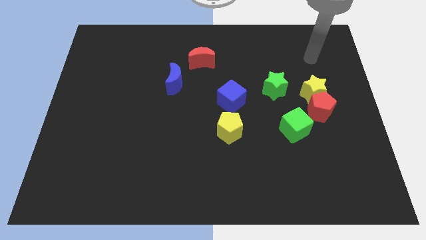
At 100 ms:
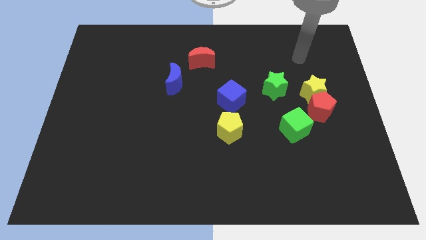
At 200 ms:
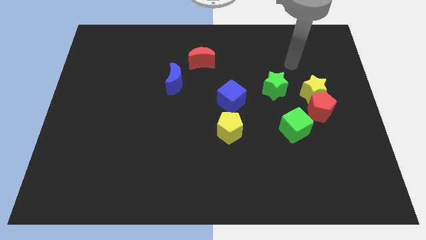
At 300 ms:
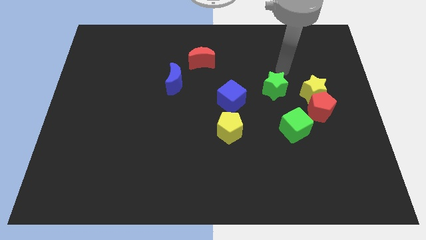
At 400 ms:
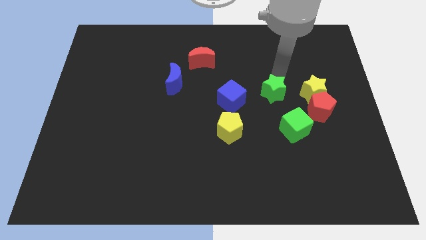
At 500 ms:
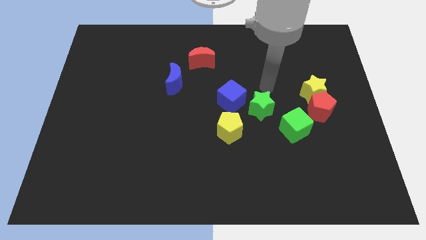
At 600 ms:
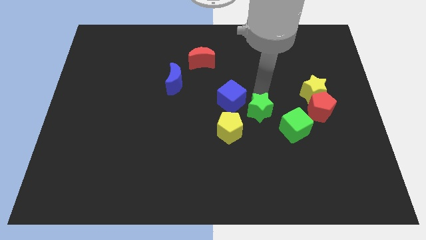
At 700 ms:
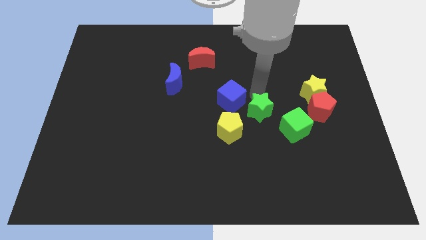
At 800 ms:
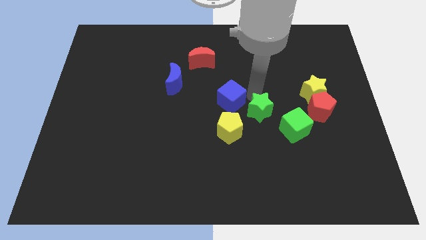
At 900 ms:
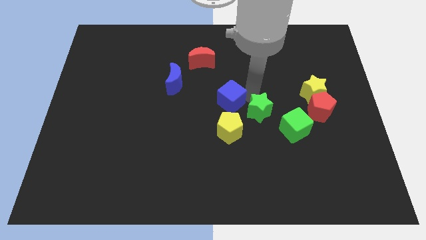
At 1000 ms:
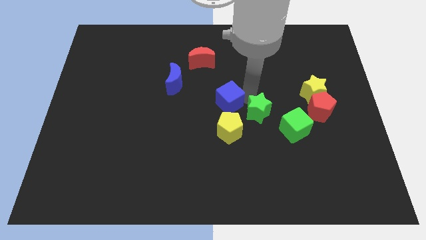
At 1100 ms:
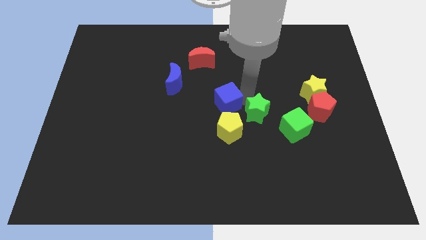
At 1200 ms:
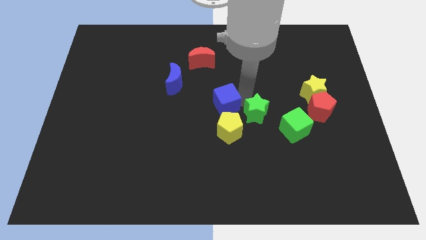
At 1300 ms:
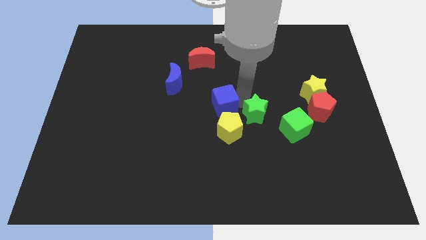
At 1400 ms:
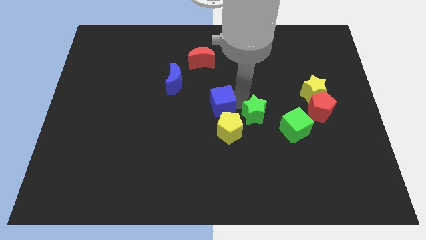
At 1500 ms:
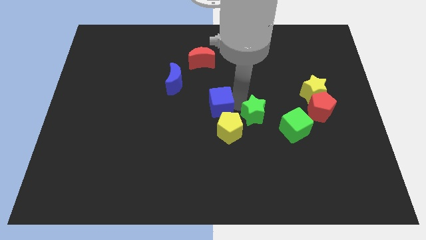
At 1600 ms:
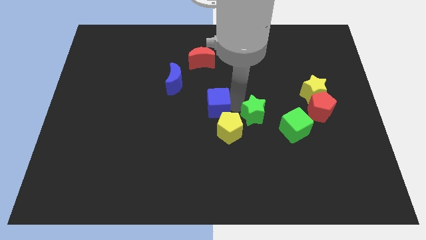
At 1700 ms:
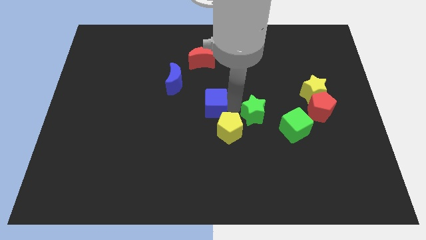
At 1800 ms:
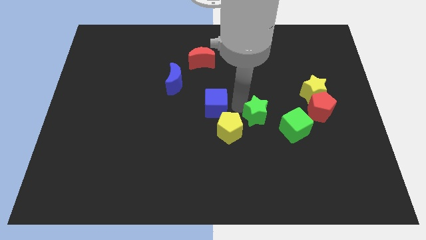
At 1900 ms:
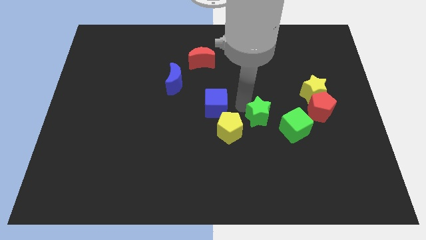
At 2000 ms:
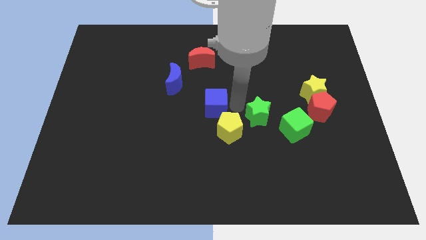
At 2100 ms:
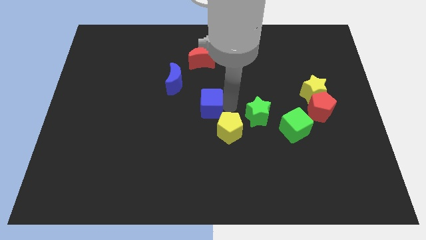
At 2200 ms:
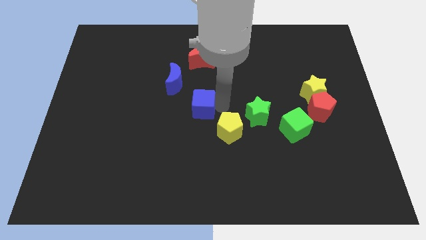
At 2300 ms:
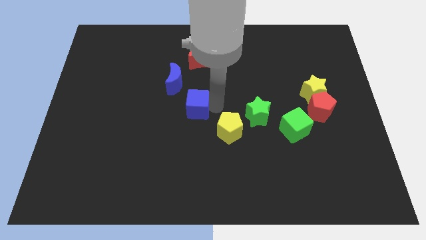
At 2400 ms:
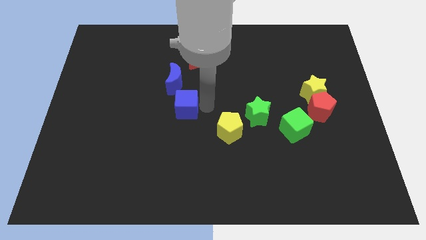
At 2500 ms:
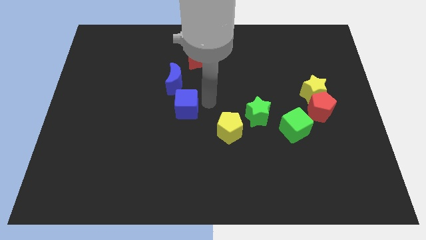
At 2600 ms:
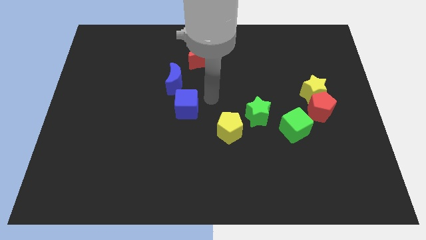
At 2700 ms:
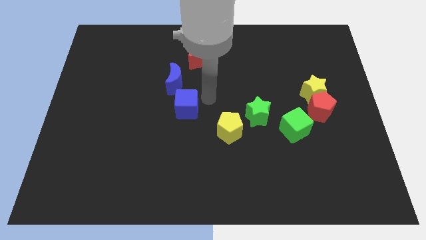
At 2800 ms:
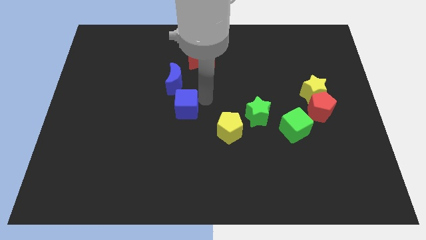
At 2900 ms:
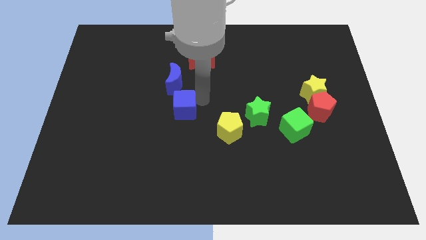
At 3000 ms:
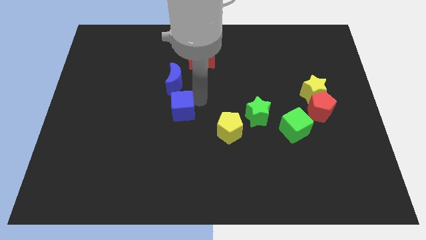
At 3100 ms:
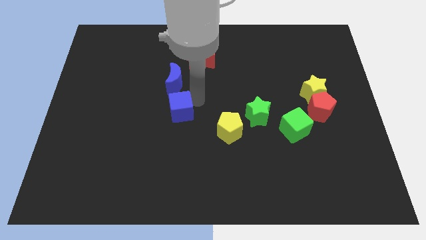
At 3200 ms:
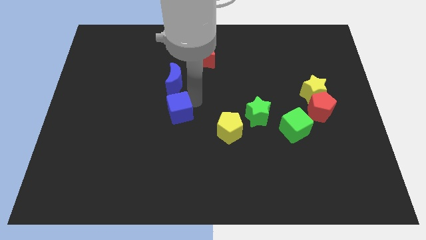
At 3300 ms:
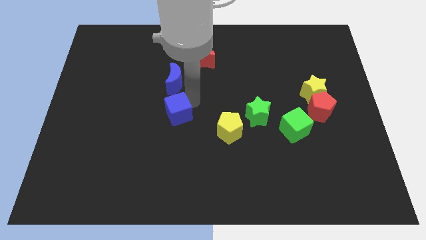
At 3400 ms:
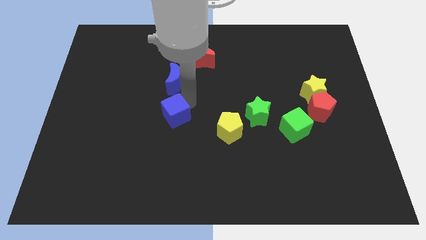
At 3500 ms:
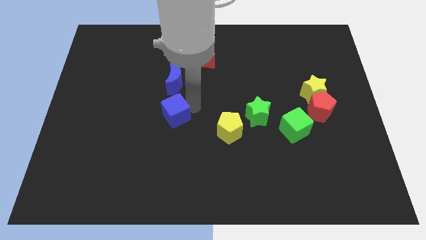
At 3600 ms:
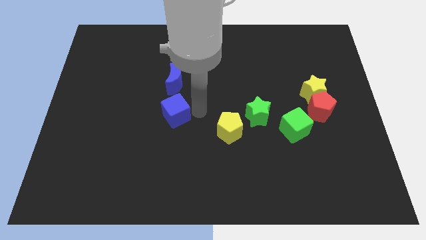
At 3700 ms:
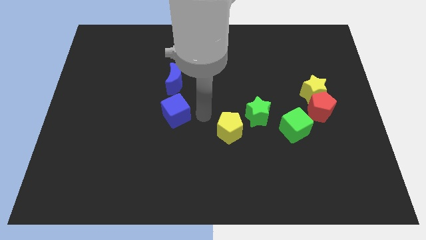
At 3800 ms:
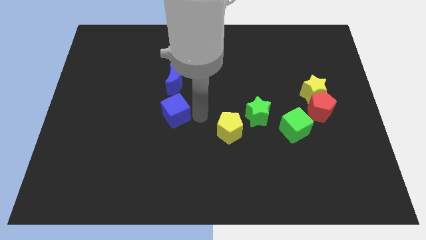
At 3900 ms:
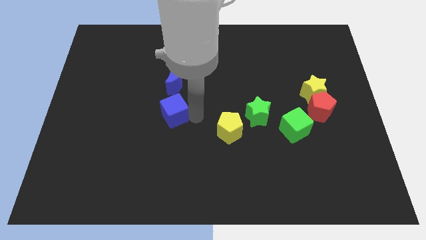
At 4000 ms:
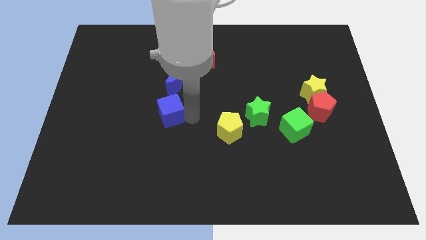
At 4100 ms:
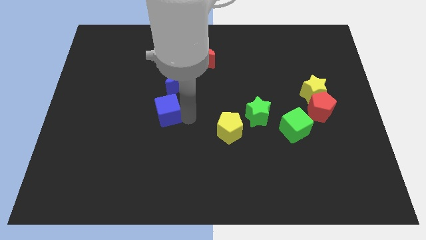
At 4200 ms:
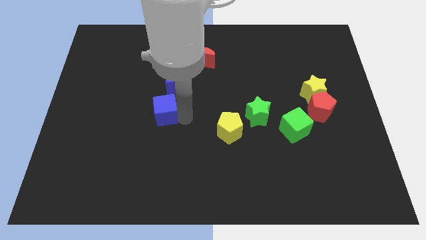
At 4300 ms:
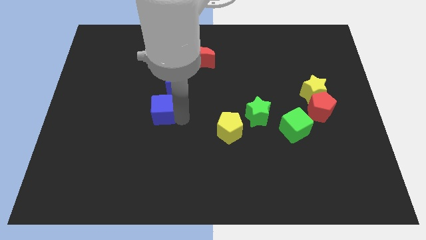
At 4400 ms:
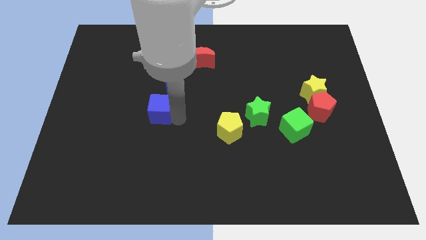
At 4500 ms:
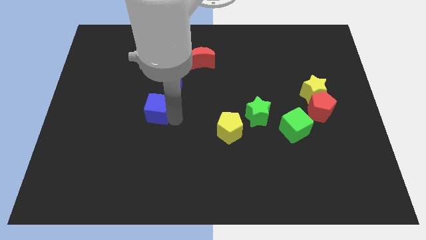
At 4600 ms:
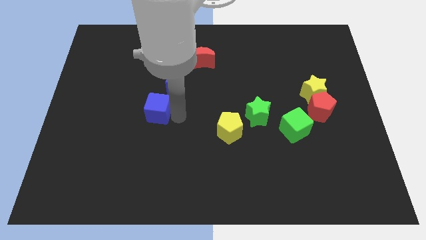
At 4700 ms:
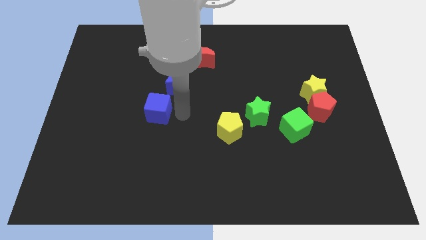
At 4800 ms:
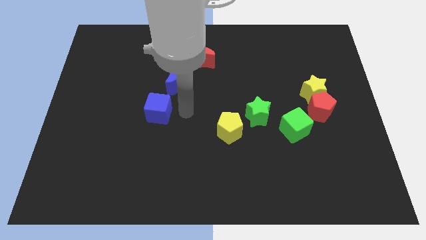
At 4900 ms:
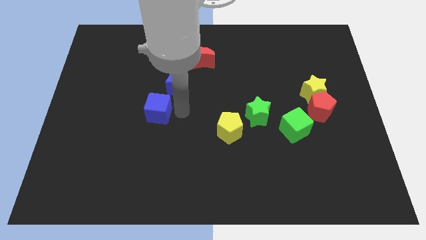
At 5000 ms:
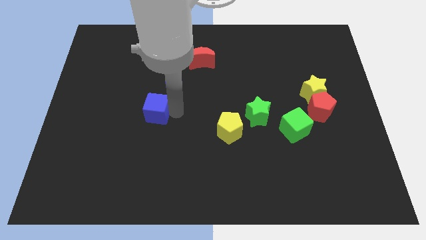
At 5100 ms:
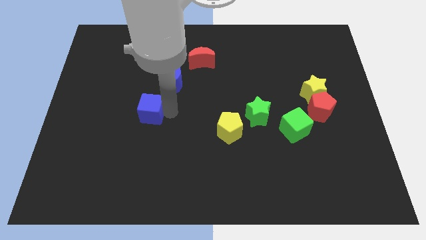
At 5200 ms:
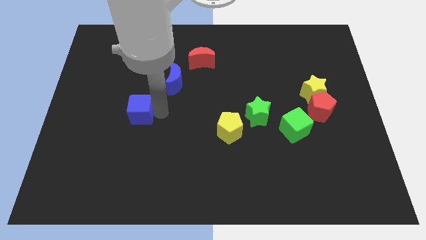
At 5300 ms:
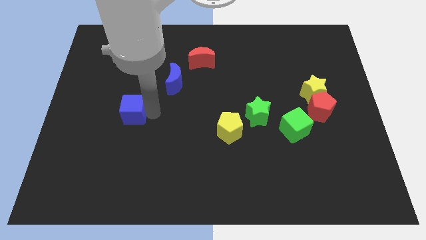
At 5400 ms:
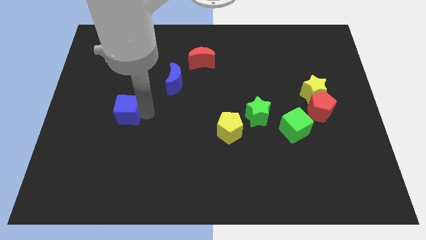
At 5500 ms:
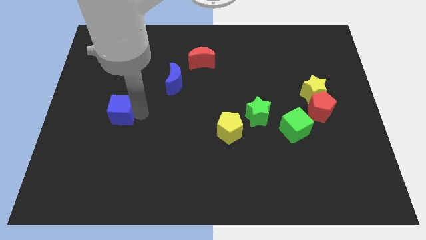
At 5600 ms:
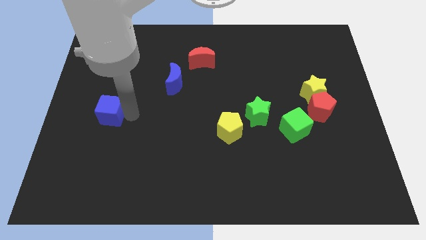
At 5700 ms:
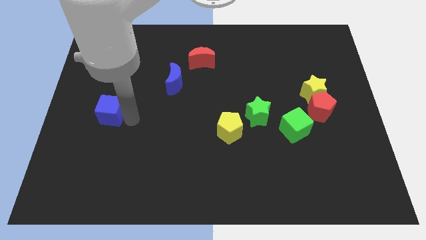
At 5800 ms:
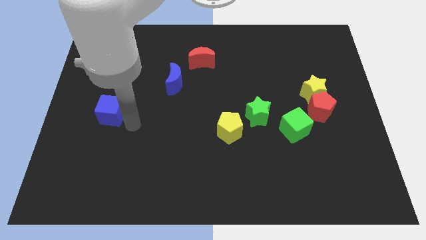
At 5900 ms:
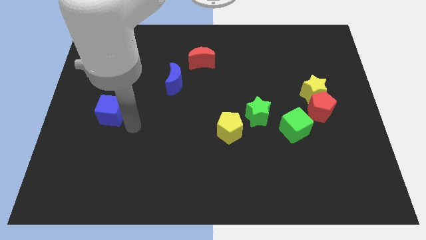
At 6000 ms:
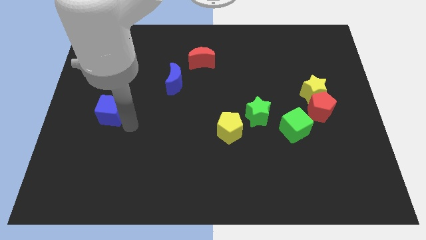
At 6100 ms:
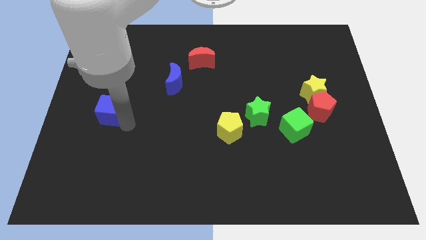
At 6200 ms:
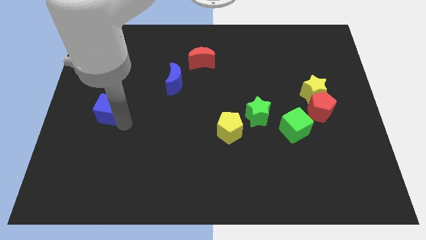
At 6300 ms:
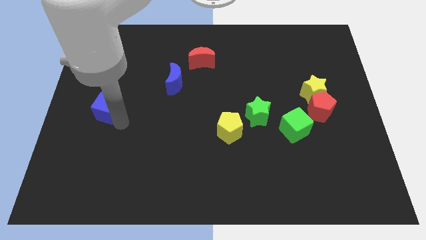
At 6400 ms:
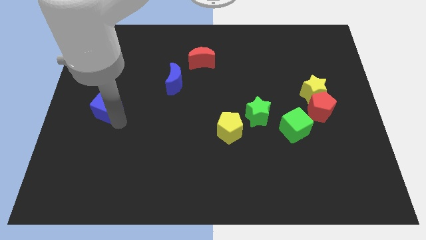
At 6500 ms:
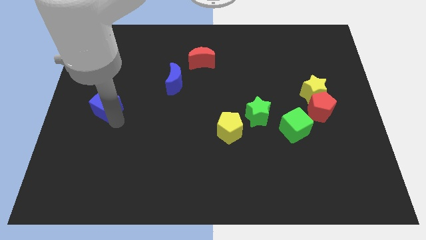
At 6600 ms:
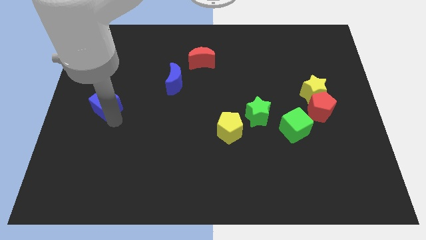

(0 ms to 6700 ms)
push the blue cube to the left side of the board

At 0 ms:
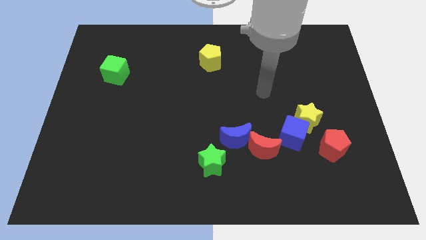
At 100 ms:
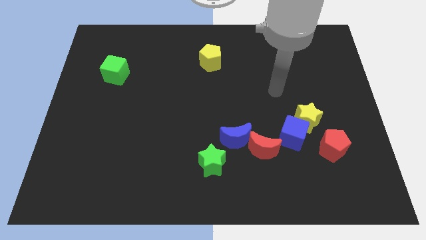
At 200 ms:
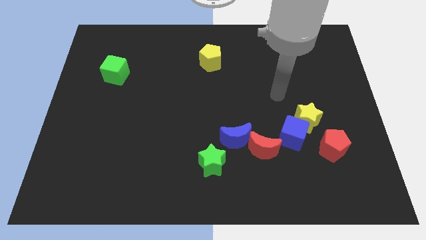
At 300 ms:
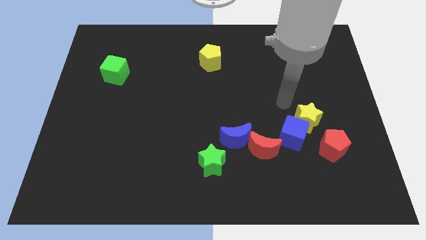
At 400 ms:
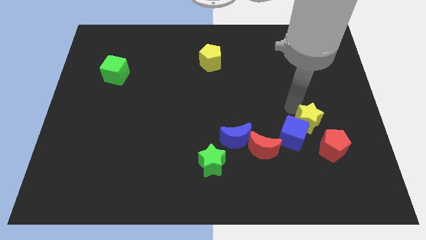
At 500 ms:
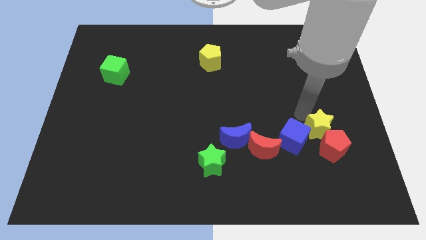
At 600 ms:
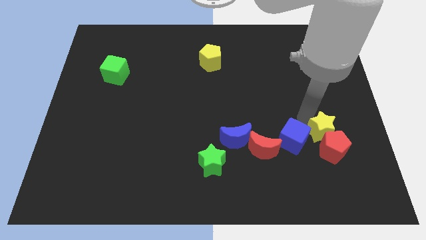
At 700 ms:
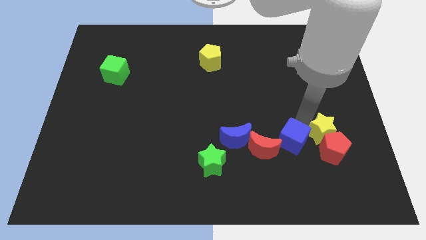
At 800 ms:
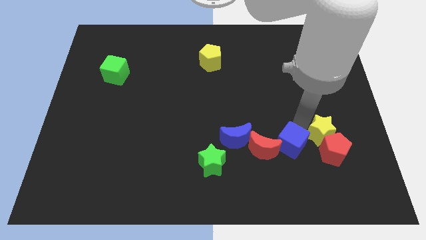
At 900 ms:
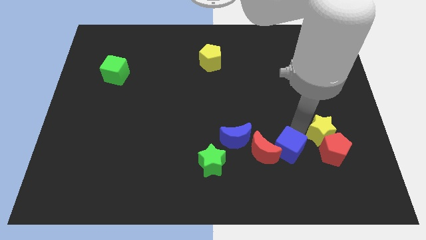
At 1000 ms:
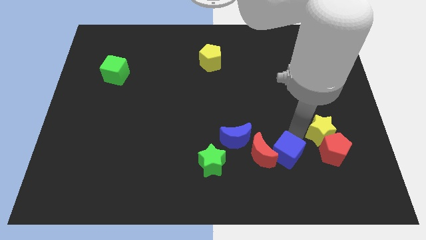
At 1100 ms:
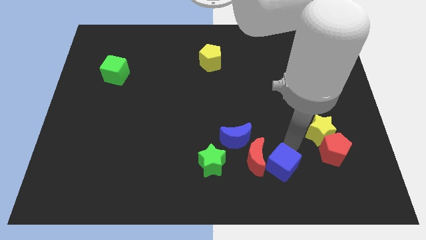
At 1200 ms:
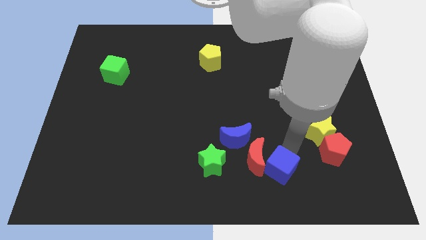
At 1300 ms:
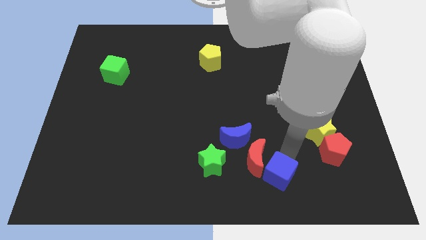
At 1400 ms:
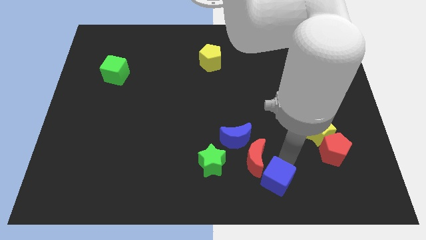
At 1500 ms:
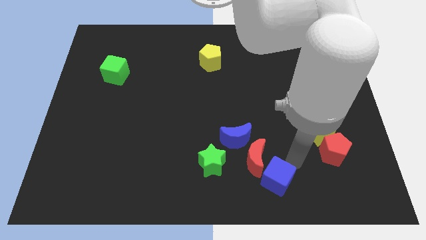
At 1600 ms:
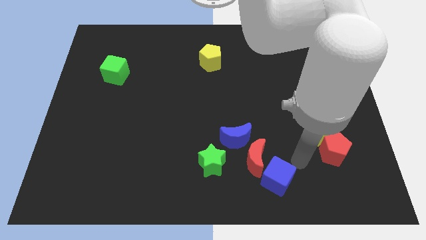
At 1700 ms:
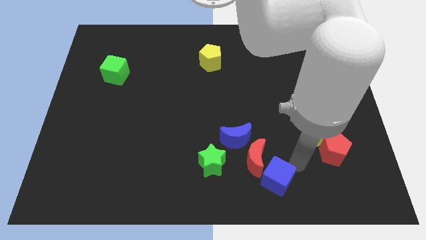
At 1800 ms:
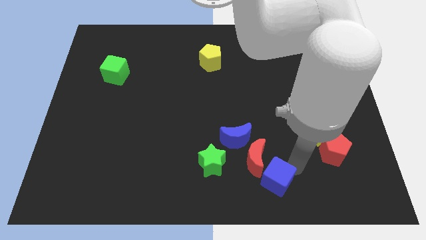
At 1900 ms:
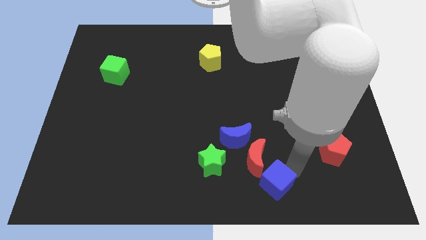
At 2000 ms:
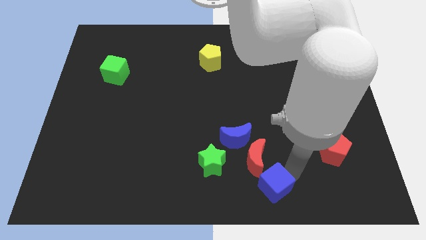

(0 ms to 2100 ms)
slide the blue cube to the bottom side
